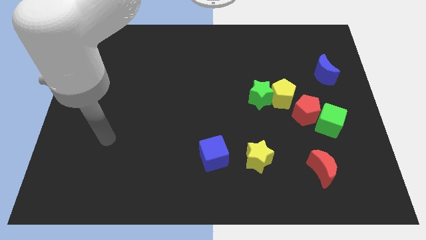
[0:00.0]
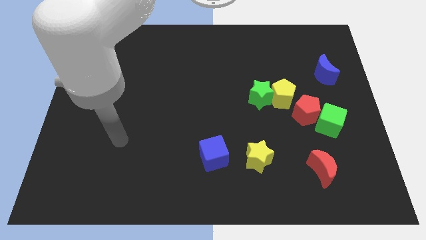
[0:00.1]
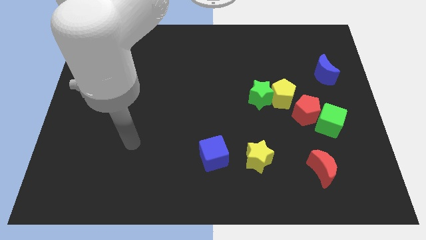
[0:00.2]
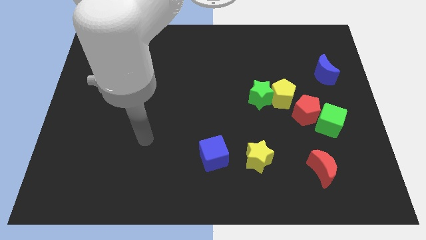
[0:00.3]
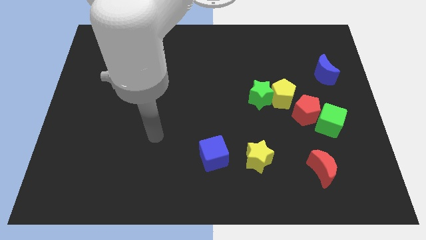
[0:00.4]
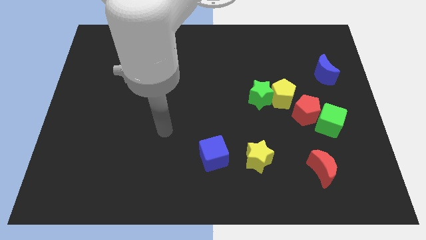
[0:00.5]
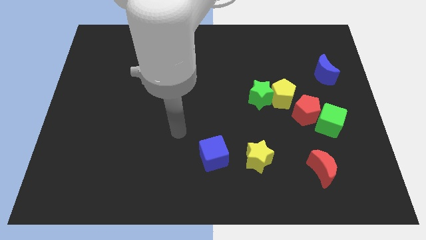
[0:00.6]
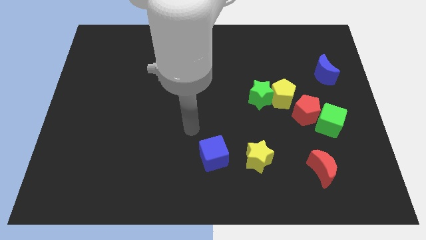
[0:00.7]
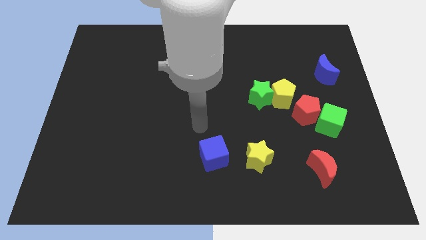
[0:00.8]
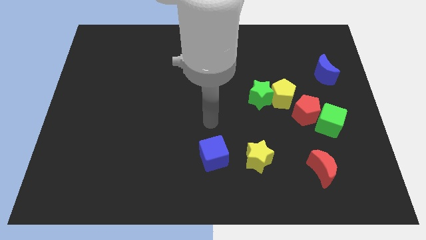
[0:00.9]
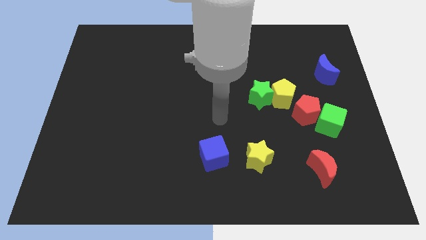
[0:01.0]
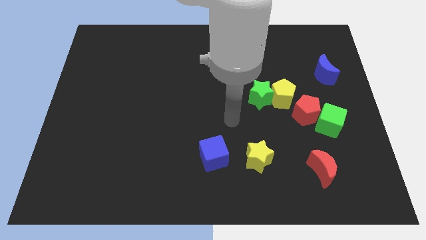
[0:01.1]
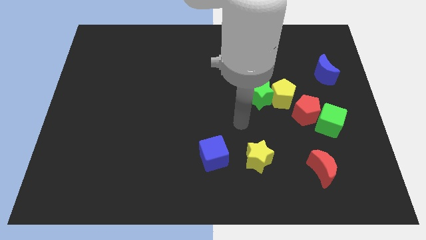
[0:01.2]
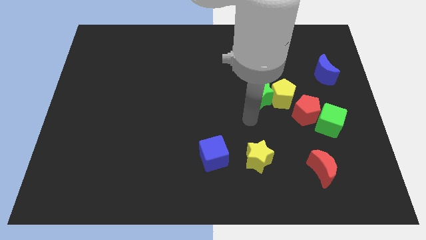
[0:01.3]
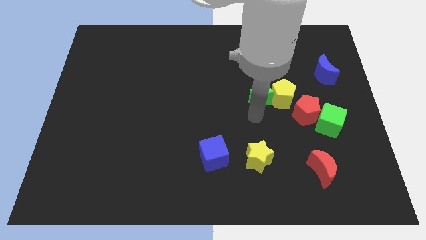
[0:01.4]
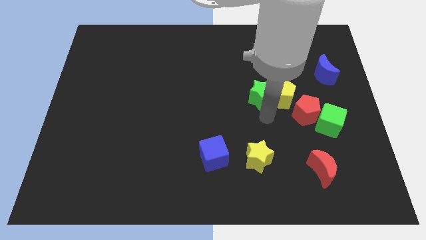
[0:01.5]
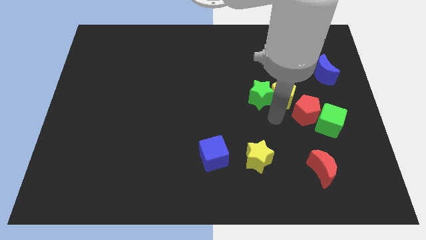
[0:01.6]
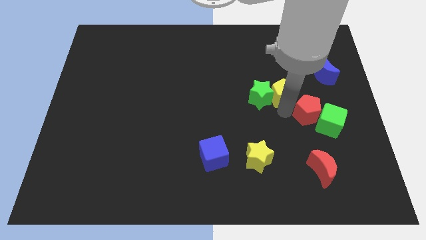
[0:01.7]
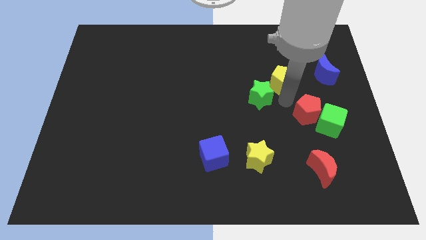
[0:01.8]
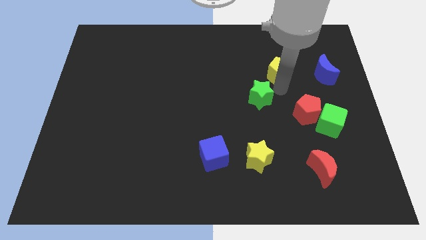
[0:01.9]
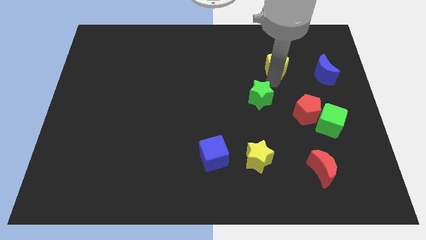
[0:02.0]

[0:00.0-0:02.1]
move the green star away from the yellow pentagon

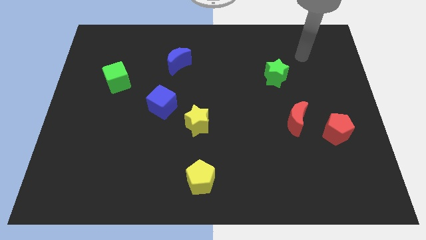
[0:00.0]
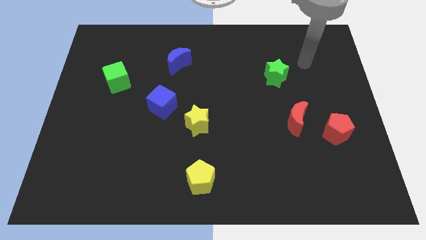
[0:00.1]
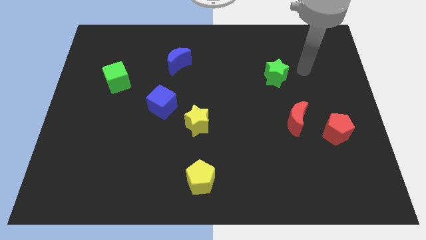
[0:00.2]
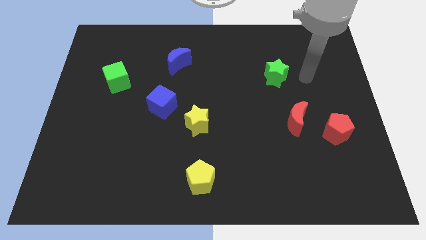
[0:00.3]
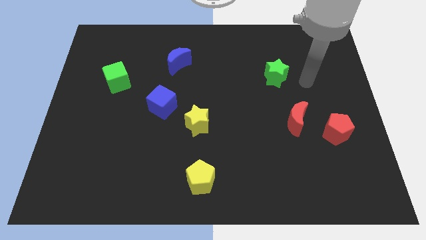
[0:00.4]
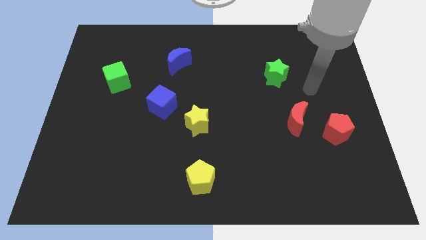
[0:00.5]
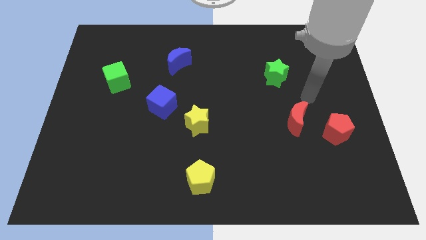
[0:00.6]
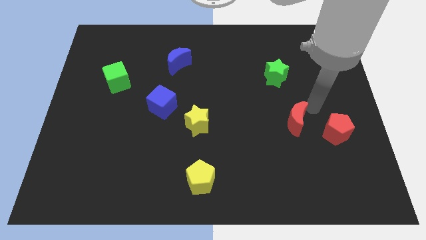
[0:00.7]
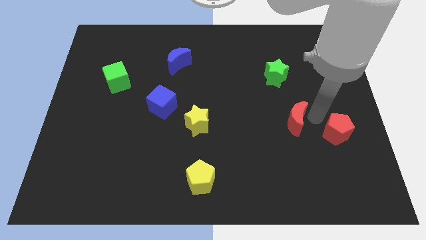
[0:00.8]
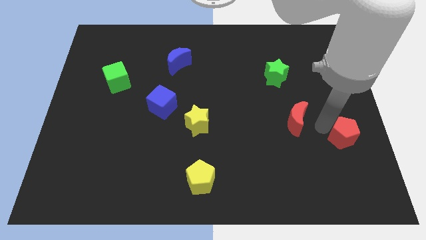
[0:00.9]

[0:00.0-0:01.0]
separate the red moon from the red pentagon

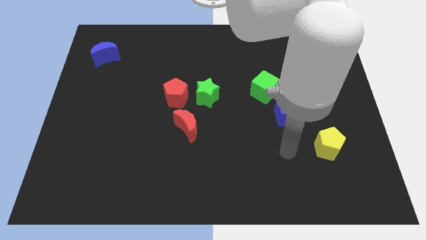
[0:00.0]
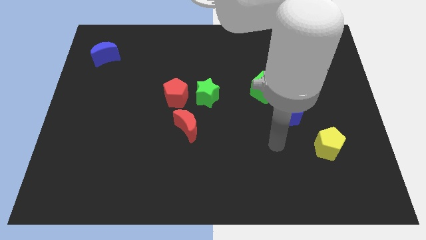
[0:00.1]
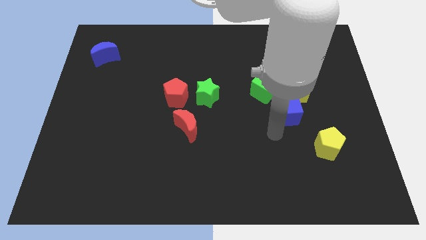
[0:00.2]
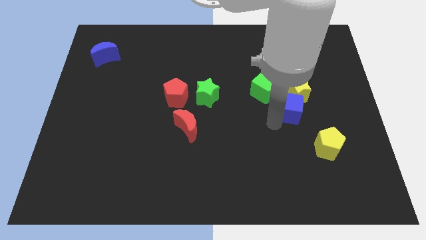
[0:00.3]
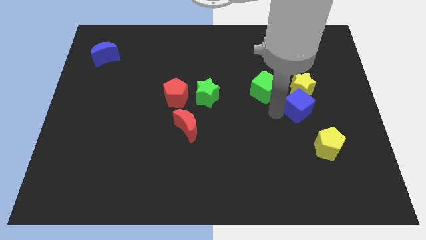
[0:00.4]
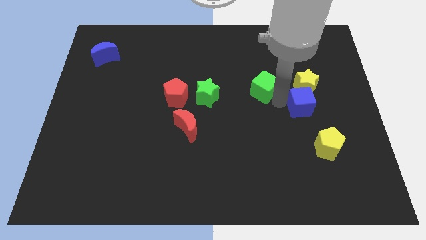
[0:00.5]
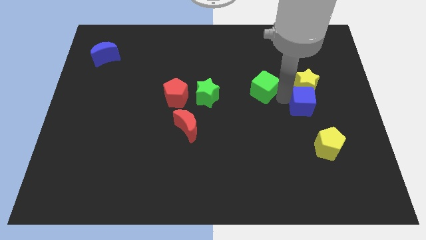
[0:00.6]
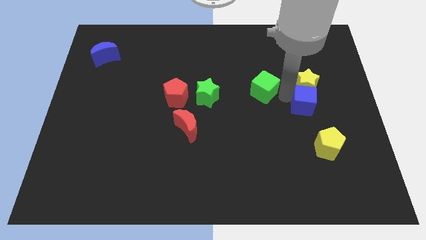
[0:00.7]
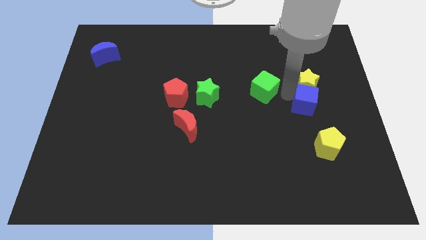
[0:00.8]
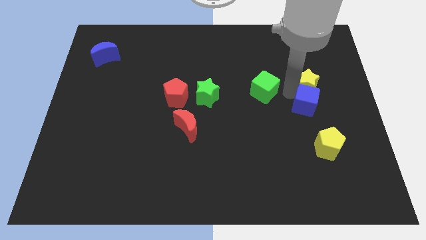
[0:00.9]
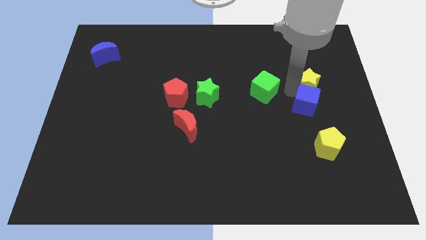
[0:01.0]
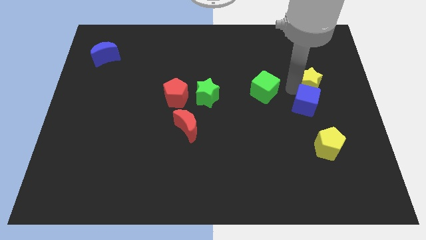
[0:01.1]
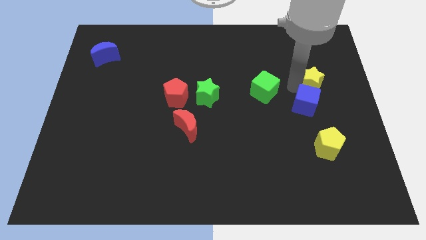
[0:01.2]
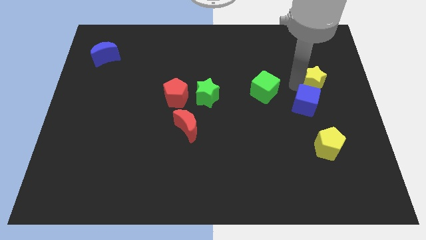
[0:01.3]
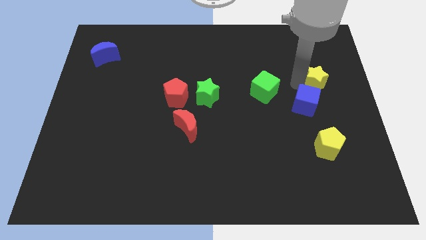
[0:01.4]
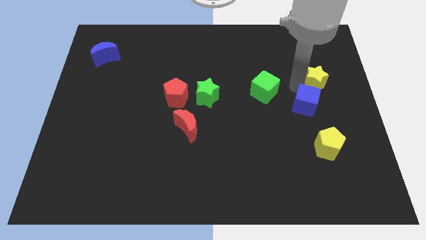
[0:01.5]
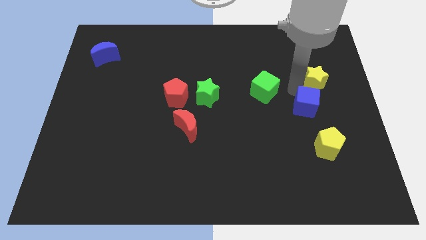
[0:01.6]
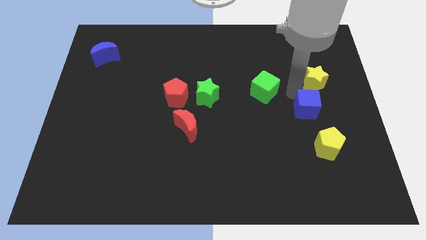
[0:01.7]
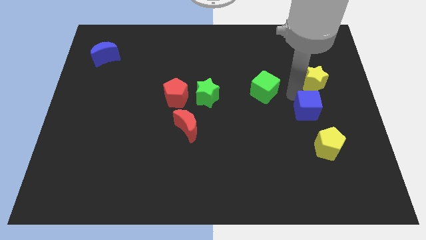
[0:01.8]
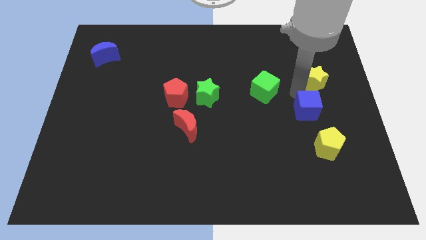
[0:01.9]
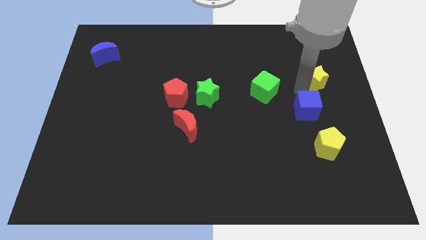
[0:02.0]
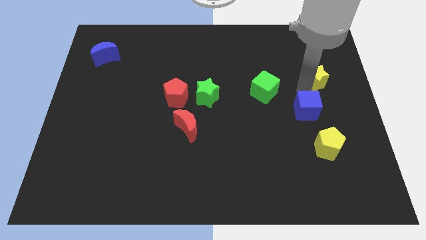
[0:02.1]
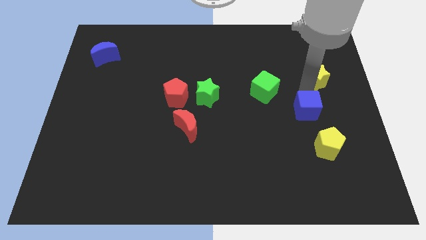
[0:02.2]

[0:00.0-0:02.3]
move the yellow star away from the blue cube and green cube

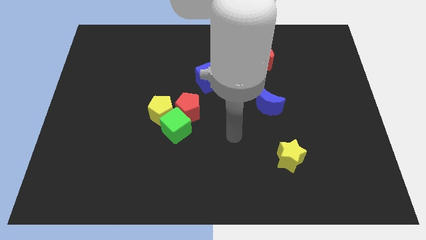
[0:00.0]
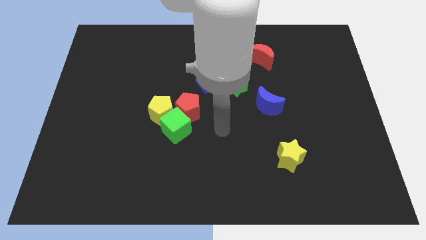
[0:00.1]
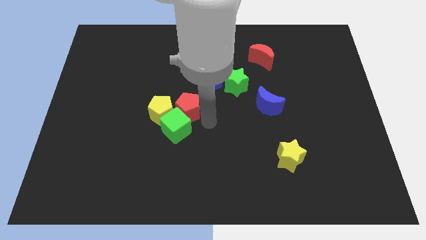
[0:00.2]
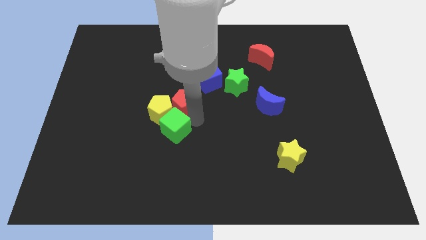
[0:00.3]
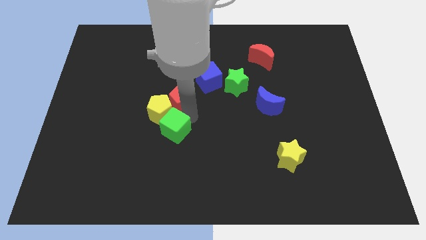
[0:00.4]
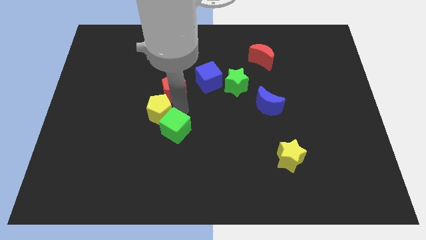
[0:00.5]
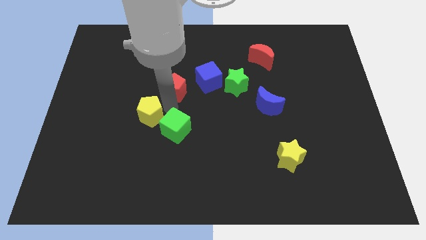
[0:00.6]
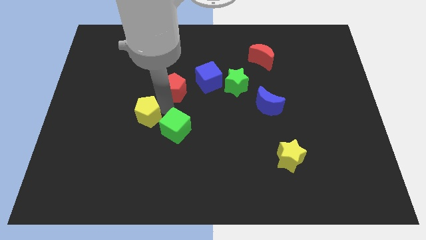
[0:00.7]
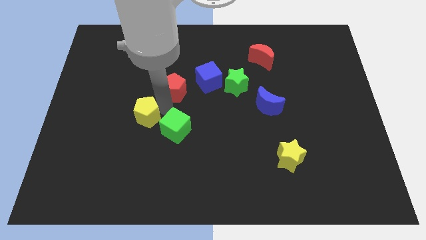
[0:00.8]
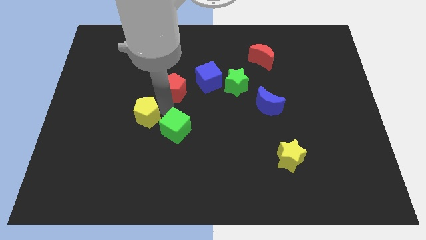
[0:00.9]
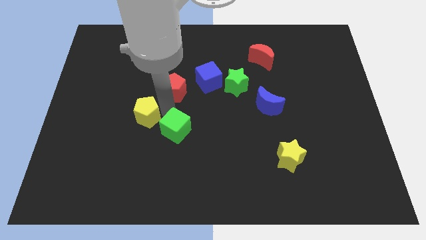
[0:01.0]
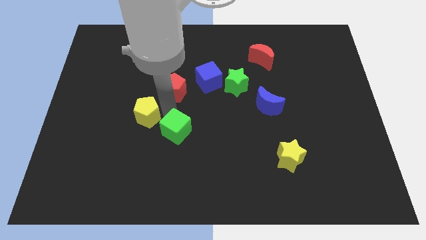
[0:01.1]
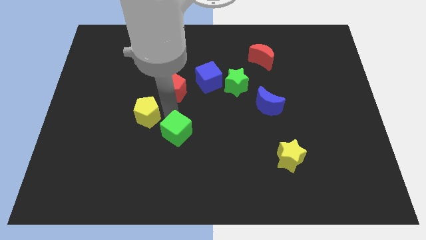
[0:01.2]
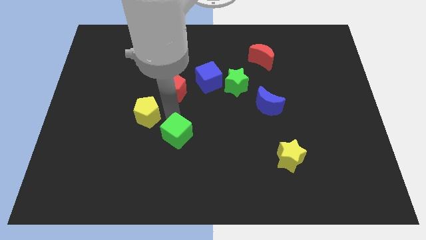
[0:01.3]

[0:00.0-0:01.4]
pull the green cube apart from the red pentagon and yellow pentagon

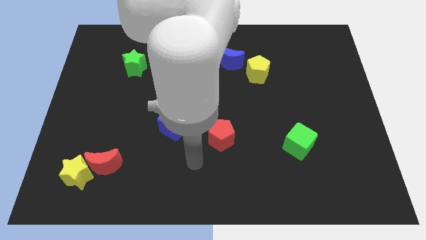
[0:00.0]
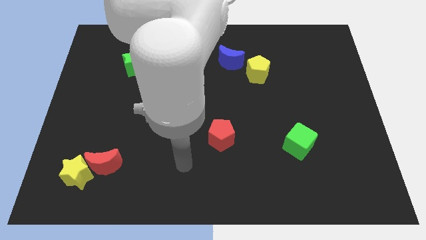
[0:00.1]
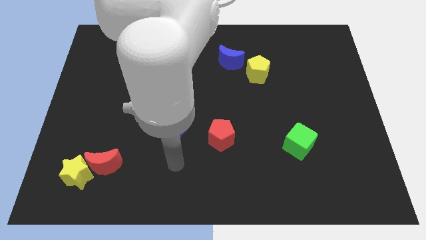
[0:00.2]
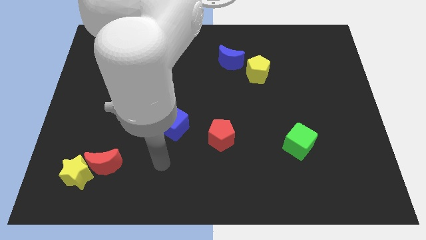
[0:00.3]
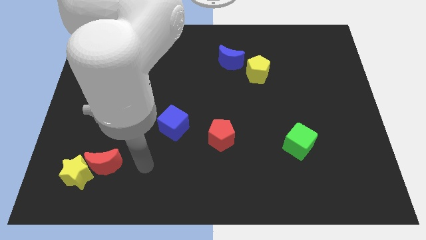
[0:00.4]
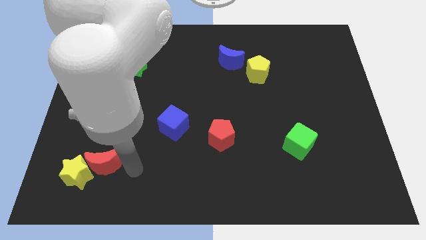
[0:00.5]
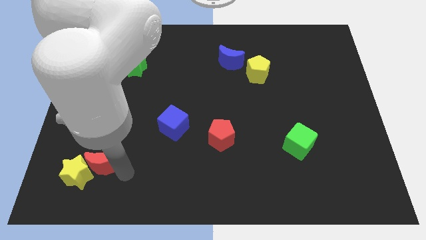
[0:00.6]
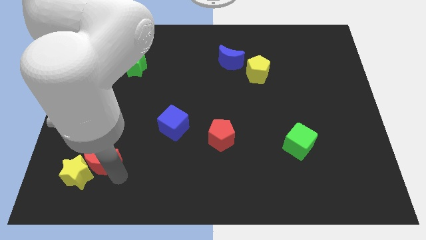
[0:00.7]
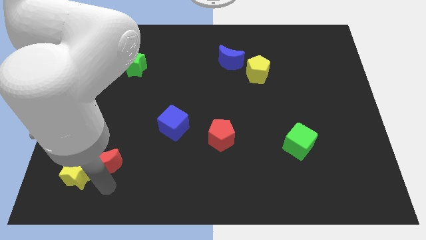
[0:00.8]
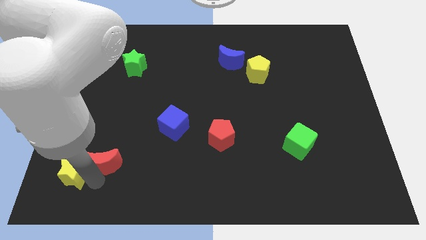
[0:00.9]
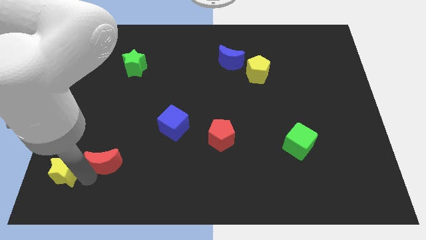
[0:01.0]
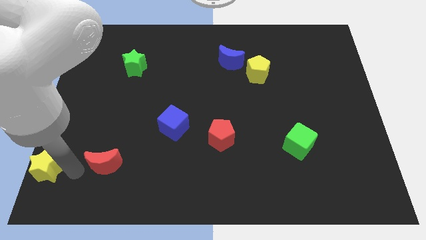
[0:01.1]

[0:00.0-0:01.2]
separate the red moon from the yellow star

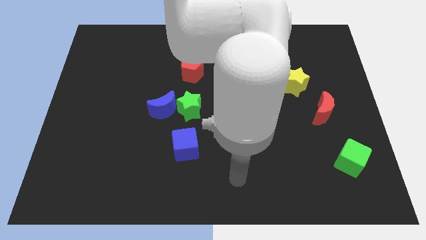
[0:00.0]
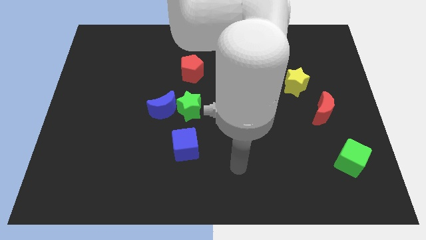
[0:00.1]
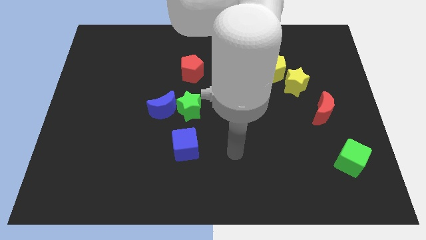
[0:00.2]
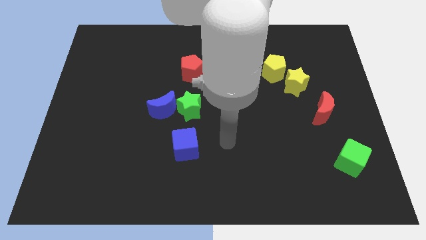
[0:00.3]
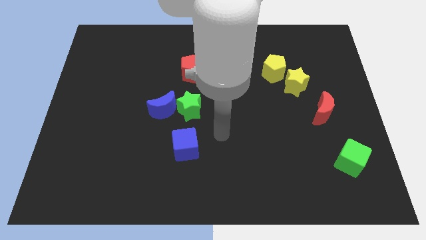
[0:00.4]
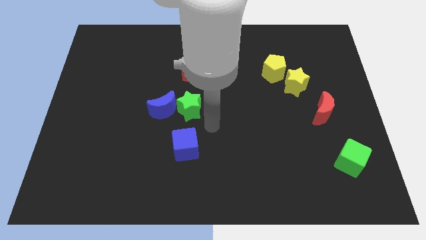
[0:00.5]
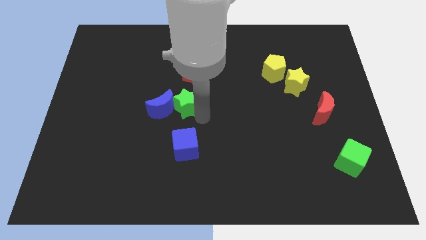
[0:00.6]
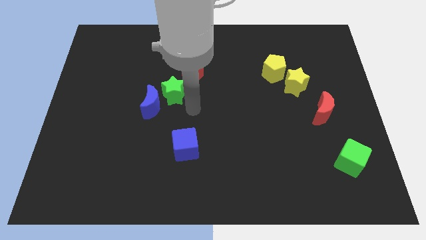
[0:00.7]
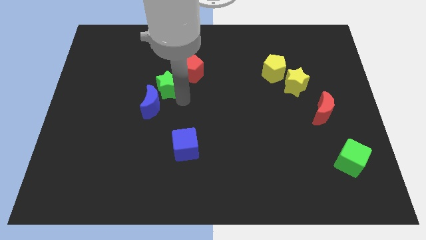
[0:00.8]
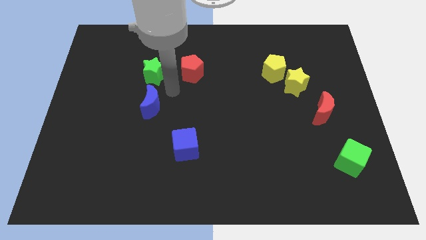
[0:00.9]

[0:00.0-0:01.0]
separate the blue moon from the green star

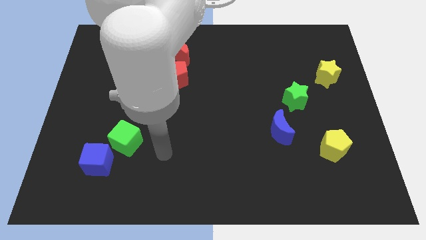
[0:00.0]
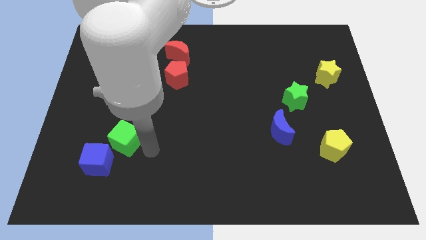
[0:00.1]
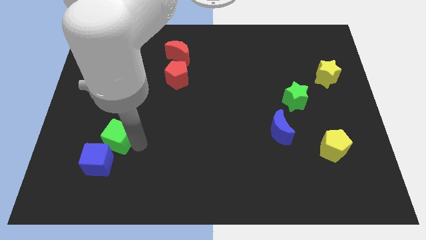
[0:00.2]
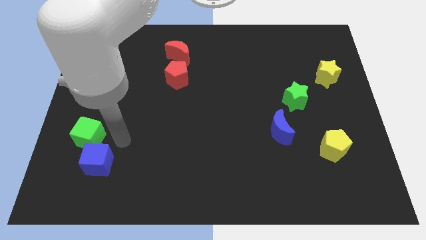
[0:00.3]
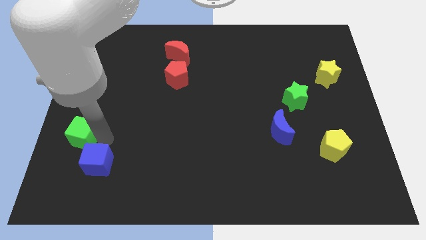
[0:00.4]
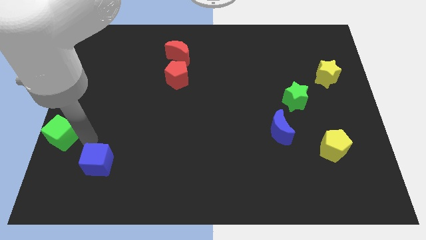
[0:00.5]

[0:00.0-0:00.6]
move the blue cube away from the green cube
